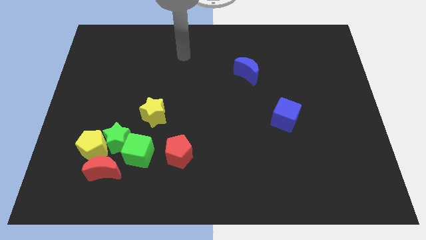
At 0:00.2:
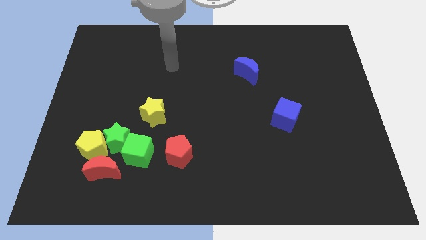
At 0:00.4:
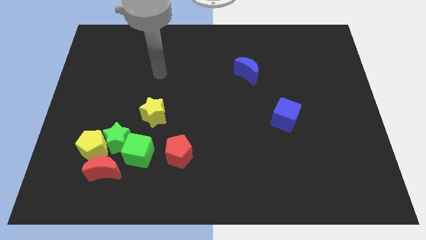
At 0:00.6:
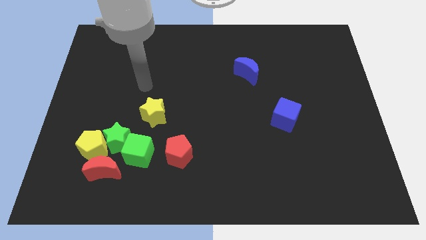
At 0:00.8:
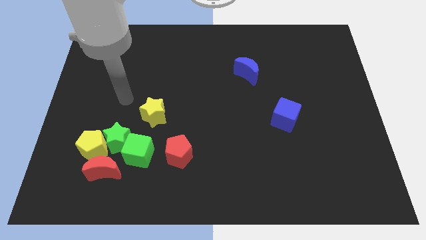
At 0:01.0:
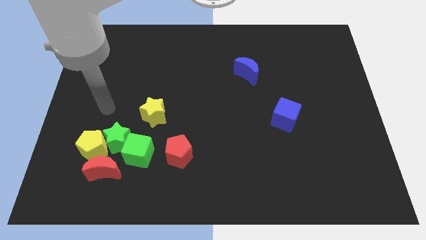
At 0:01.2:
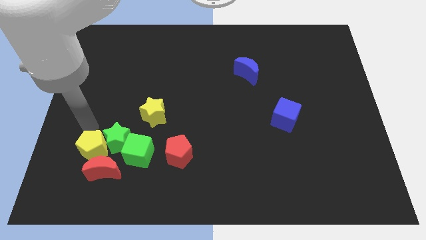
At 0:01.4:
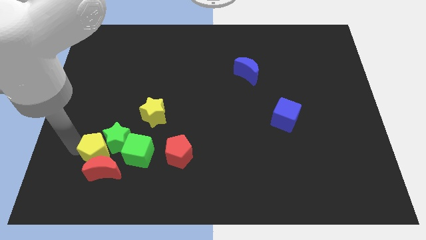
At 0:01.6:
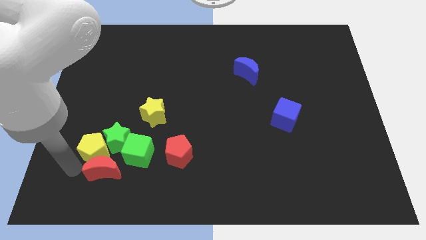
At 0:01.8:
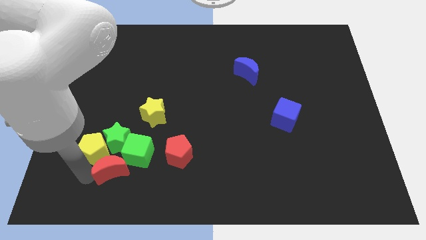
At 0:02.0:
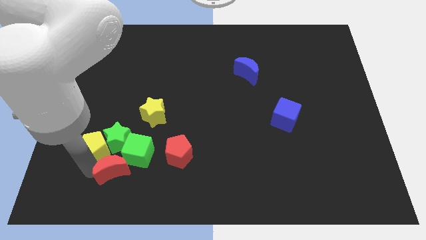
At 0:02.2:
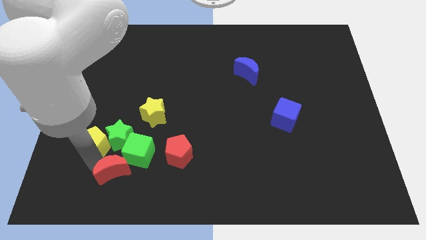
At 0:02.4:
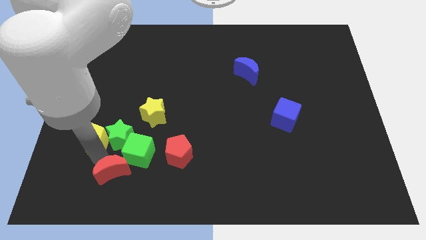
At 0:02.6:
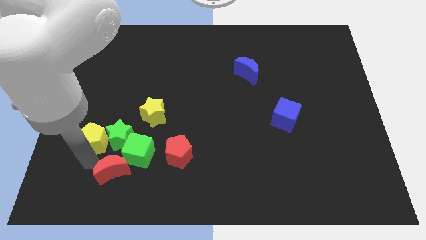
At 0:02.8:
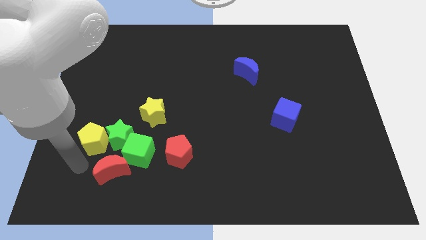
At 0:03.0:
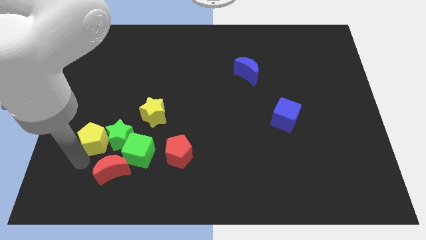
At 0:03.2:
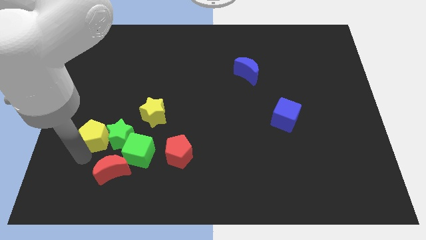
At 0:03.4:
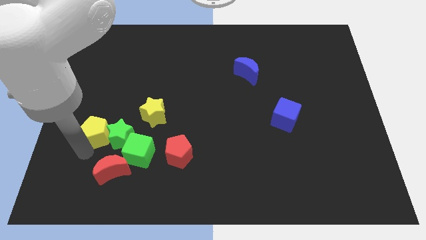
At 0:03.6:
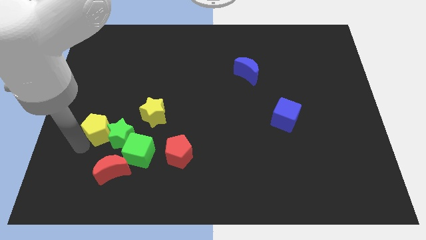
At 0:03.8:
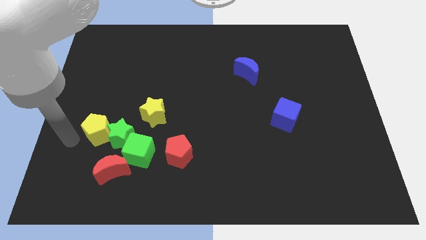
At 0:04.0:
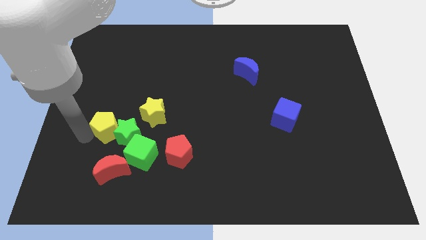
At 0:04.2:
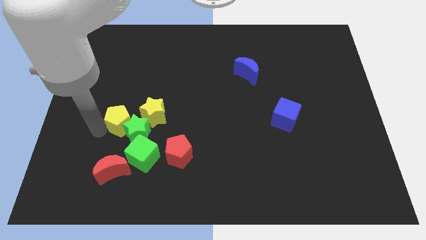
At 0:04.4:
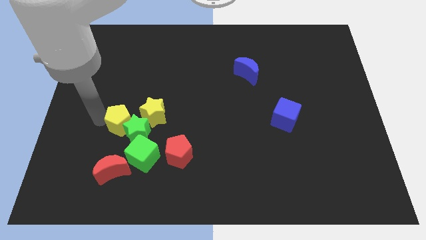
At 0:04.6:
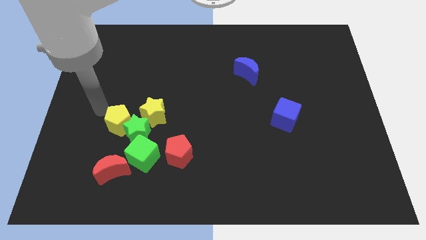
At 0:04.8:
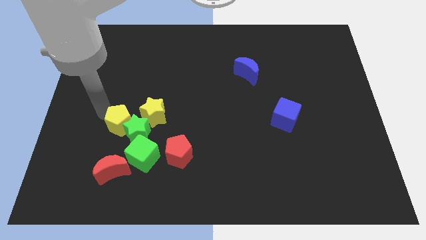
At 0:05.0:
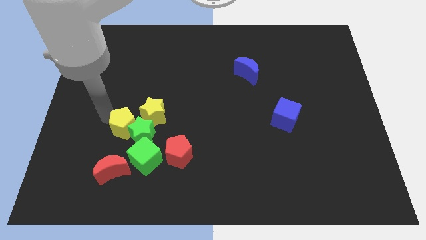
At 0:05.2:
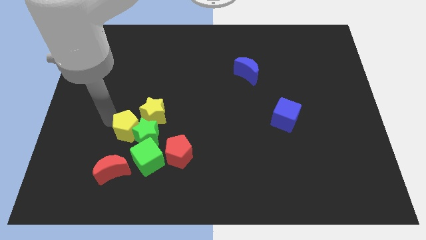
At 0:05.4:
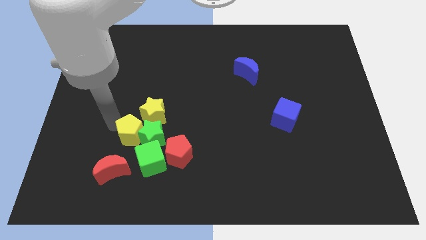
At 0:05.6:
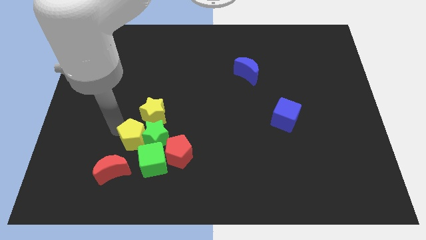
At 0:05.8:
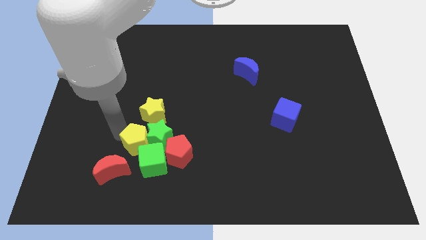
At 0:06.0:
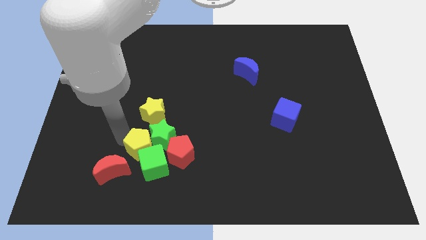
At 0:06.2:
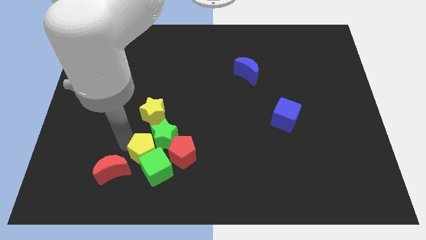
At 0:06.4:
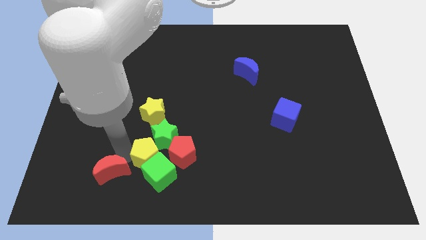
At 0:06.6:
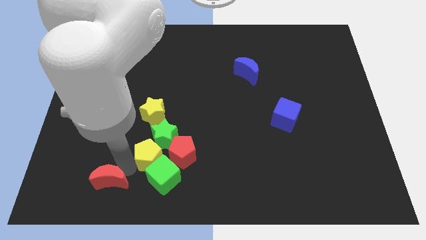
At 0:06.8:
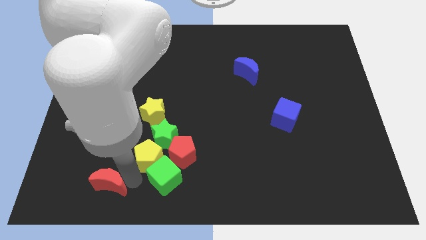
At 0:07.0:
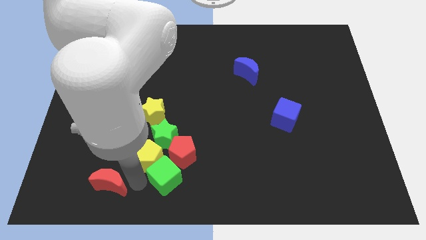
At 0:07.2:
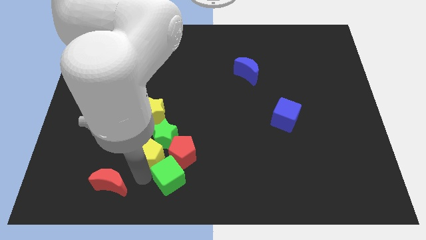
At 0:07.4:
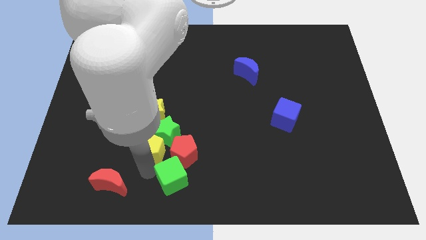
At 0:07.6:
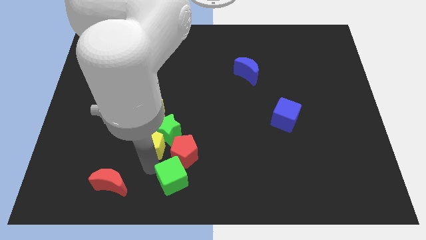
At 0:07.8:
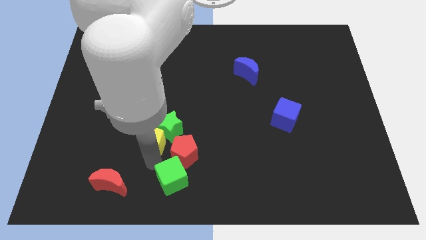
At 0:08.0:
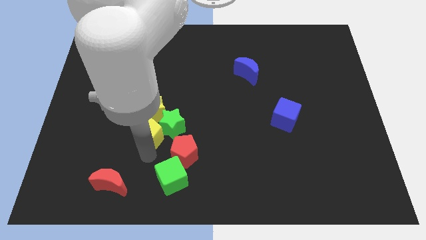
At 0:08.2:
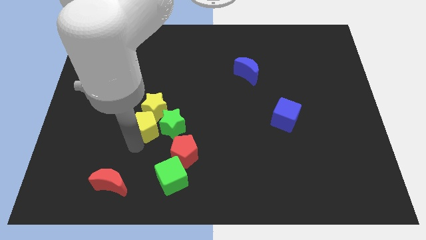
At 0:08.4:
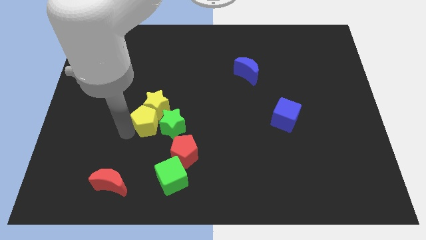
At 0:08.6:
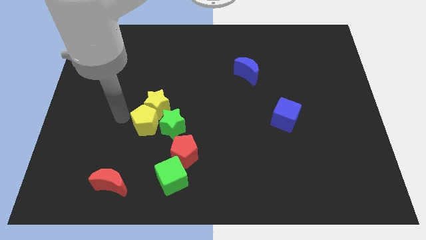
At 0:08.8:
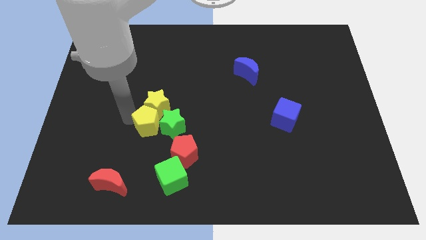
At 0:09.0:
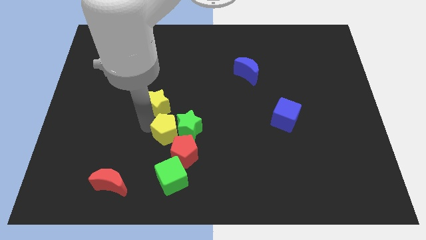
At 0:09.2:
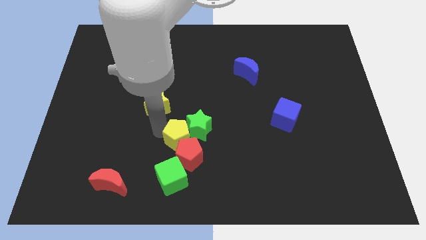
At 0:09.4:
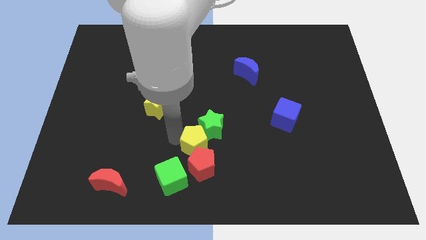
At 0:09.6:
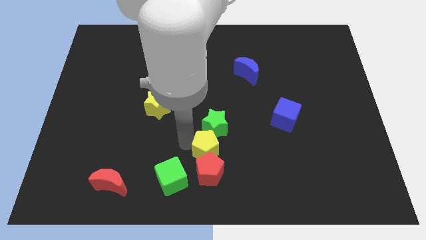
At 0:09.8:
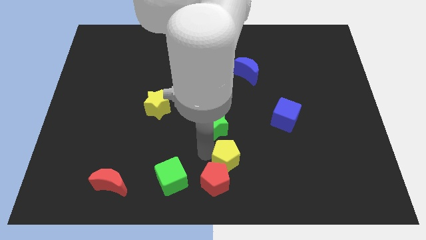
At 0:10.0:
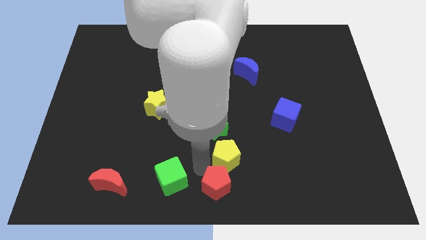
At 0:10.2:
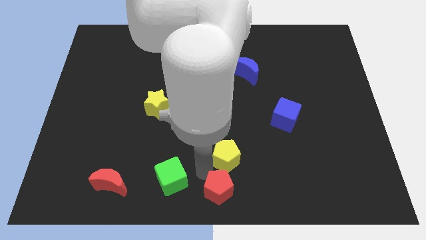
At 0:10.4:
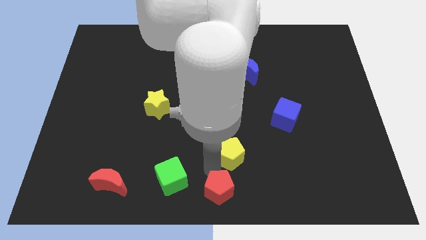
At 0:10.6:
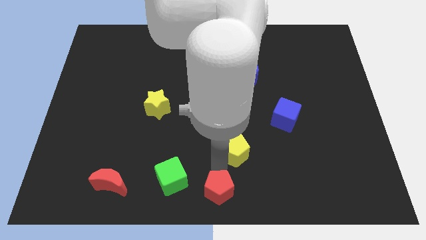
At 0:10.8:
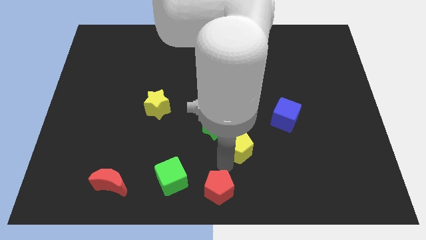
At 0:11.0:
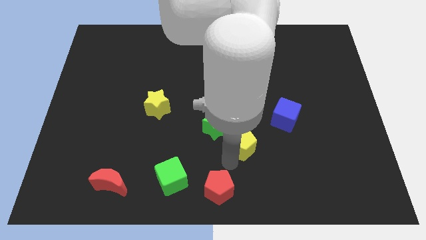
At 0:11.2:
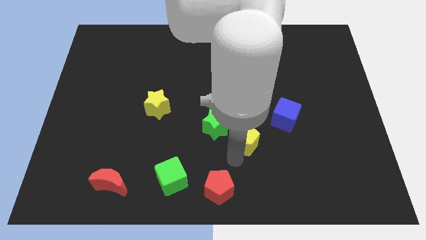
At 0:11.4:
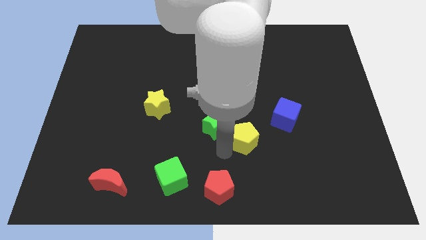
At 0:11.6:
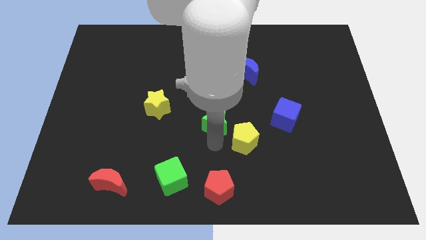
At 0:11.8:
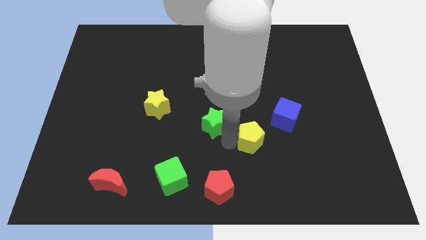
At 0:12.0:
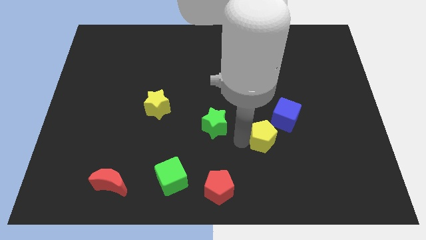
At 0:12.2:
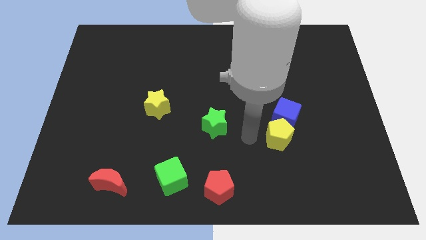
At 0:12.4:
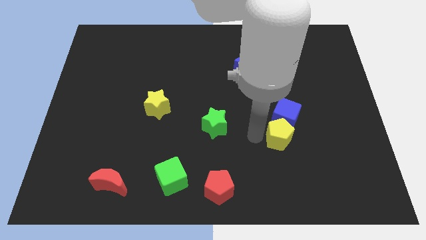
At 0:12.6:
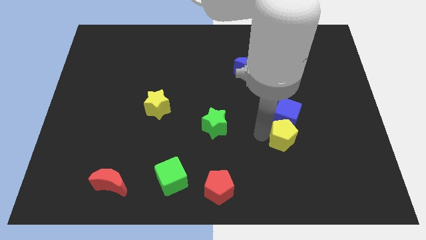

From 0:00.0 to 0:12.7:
put the yellow pentagon diagonally down and to the right of the blue cube

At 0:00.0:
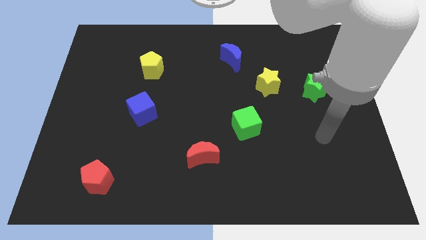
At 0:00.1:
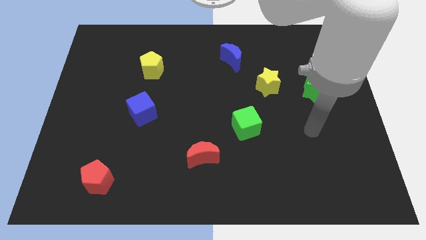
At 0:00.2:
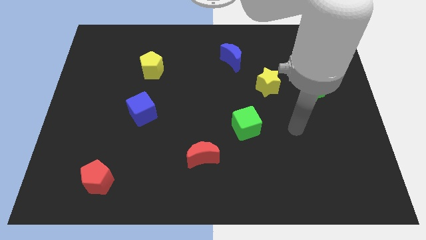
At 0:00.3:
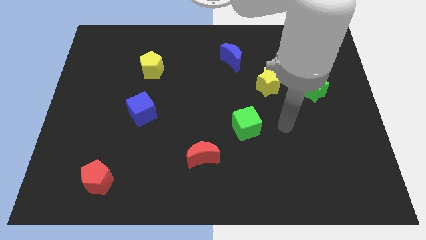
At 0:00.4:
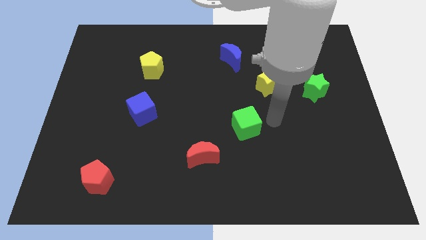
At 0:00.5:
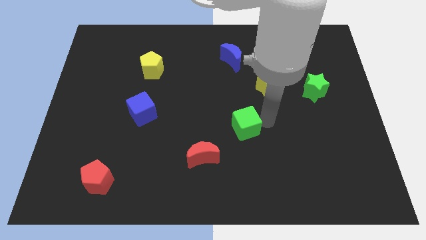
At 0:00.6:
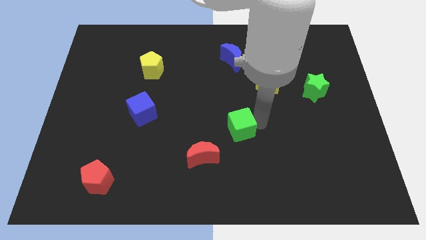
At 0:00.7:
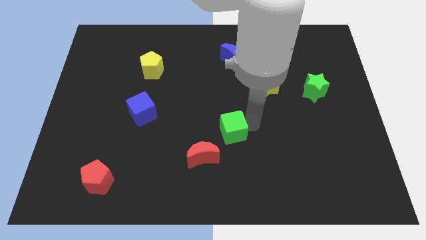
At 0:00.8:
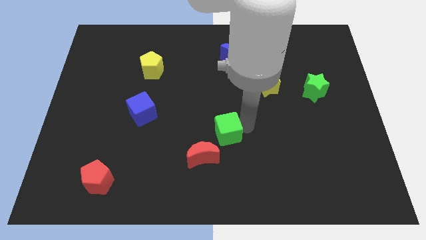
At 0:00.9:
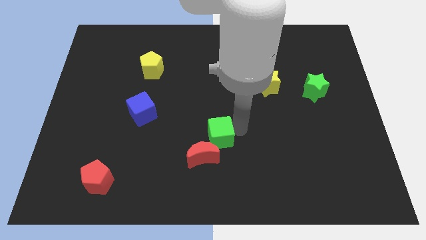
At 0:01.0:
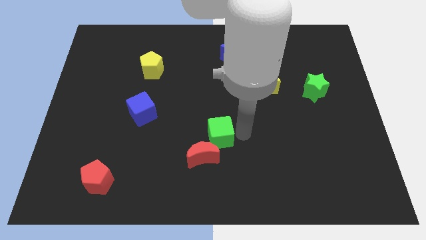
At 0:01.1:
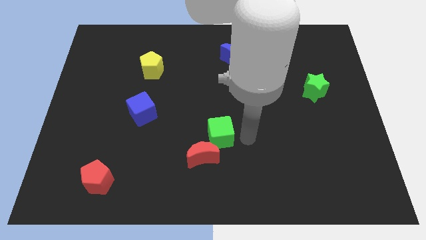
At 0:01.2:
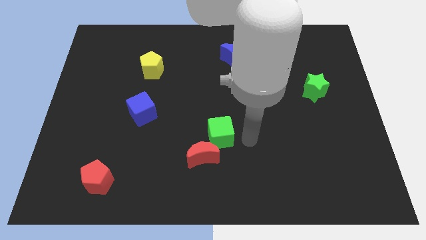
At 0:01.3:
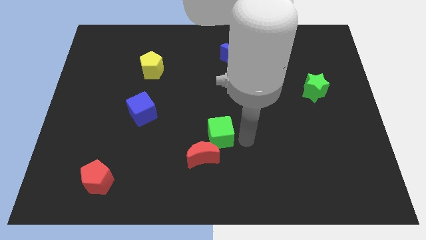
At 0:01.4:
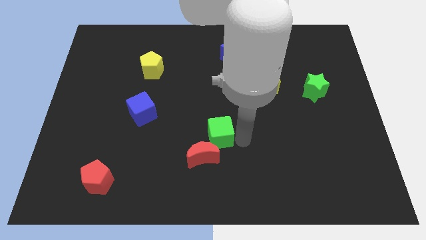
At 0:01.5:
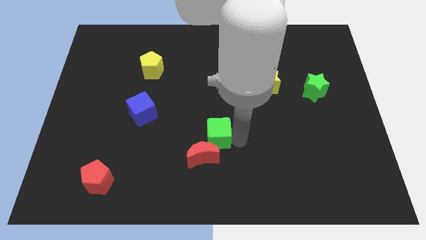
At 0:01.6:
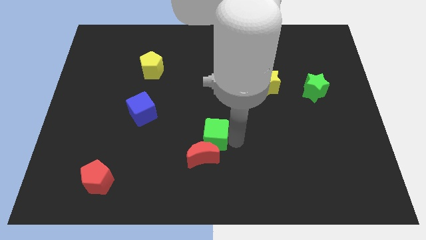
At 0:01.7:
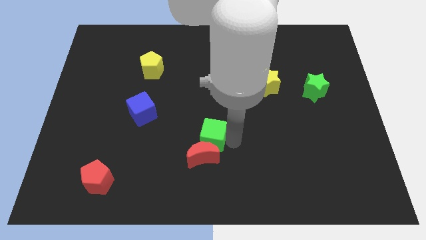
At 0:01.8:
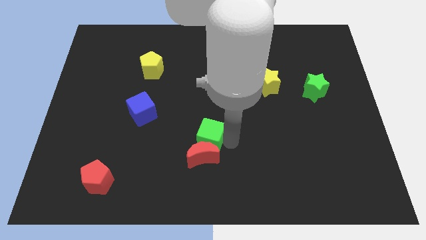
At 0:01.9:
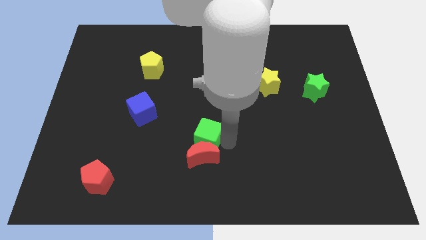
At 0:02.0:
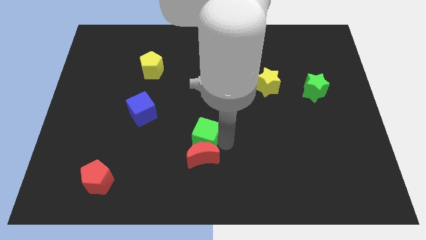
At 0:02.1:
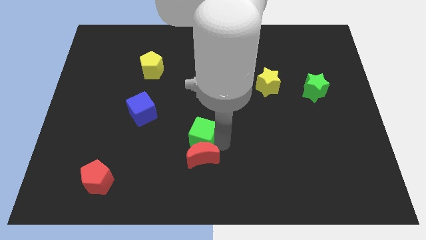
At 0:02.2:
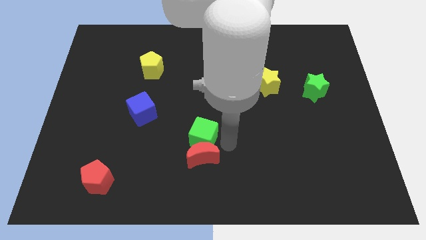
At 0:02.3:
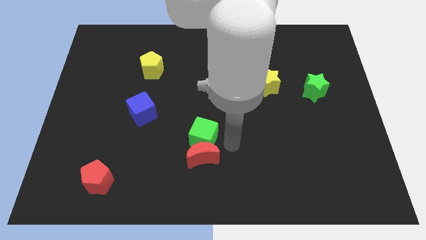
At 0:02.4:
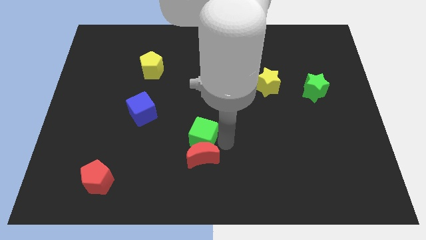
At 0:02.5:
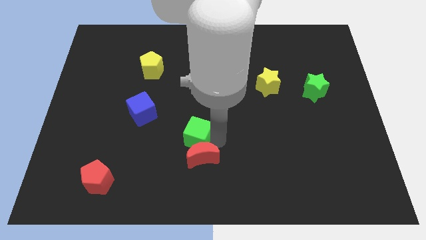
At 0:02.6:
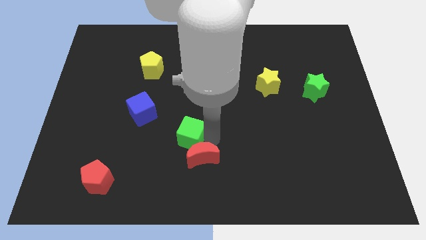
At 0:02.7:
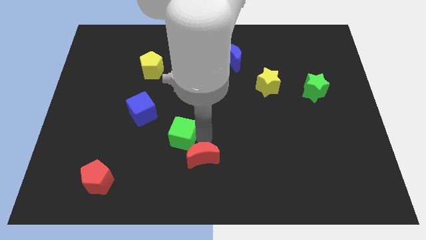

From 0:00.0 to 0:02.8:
push the green cube diagonally down and to the right of the blue cube
